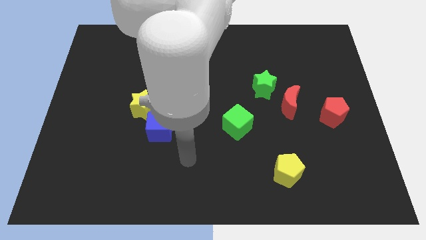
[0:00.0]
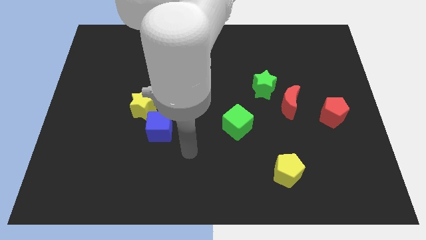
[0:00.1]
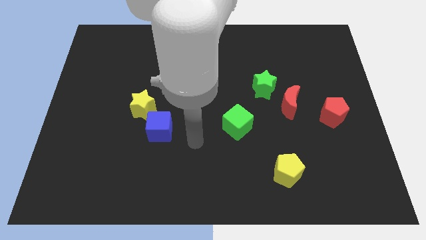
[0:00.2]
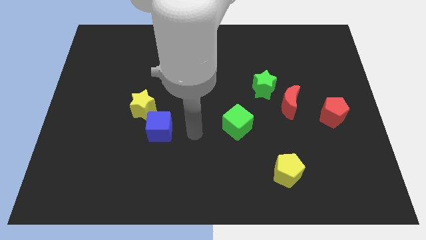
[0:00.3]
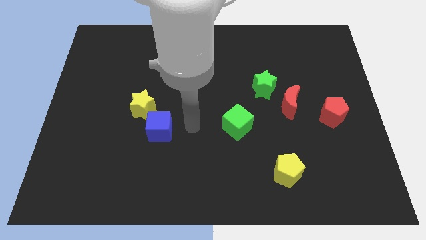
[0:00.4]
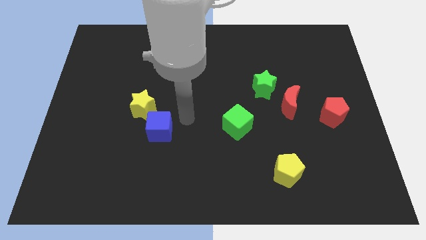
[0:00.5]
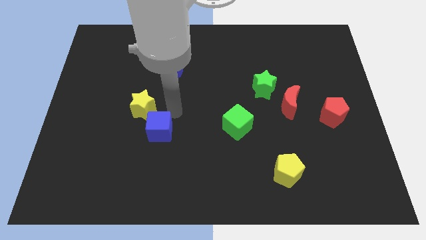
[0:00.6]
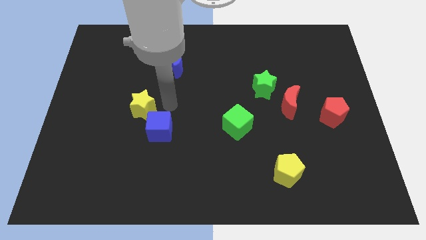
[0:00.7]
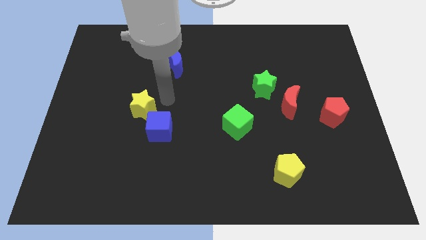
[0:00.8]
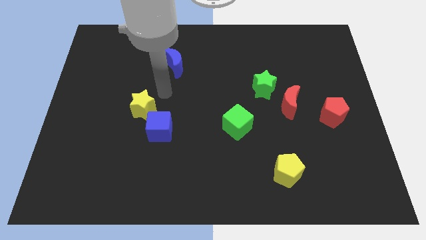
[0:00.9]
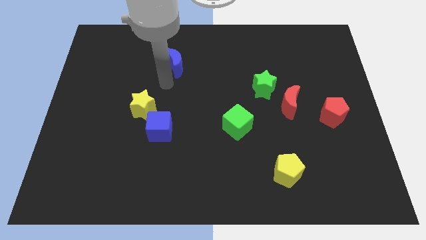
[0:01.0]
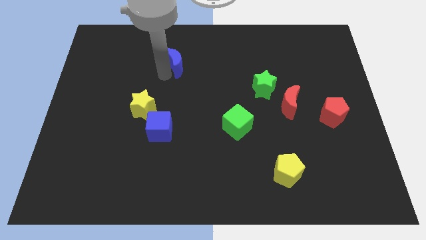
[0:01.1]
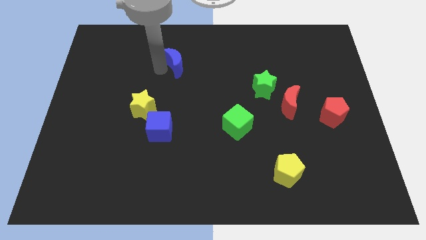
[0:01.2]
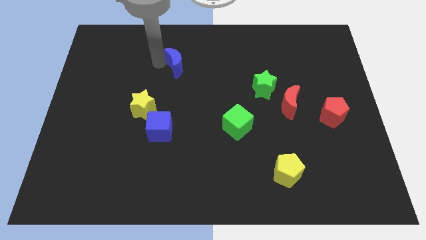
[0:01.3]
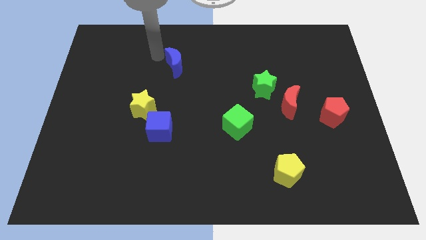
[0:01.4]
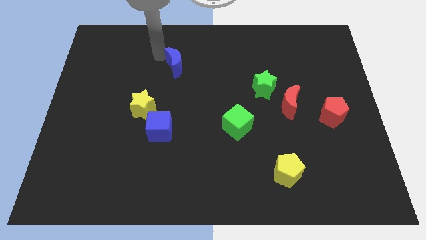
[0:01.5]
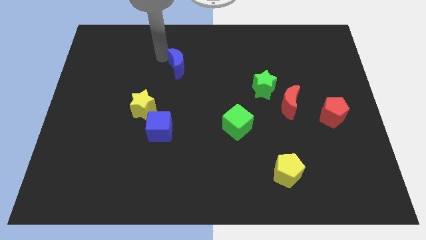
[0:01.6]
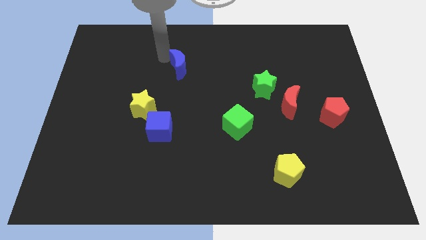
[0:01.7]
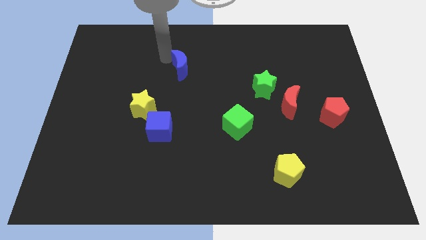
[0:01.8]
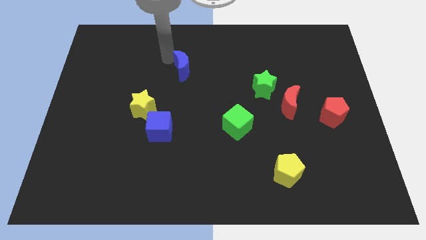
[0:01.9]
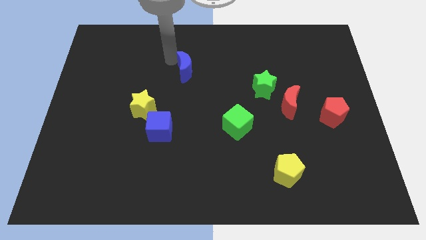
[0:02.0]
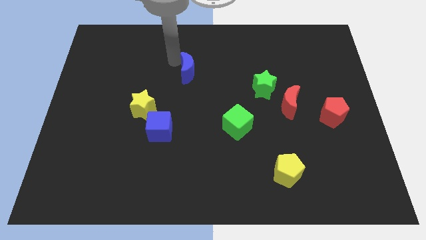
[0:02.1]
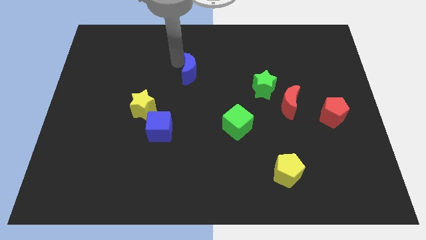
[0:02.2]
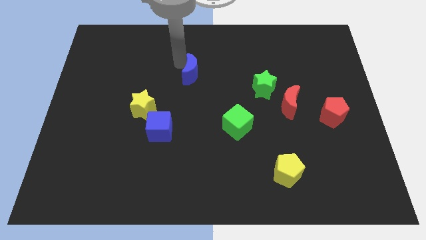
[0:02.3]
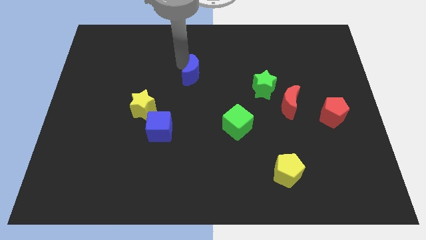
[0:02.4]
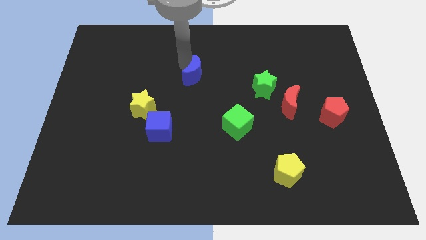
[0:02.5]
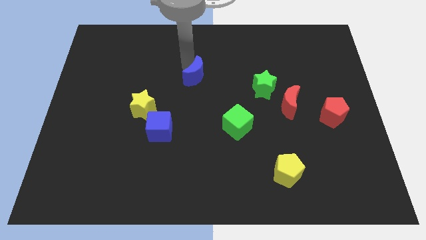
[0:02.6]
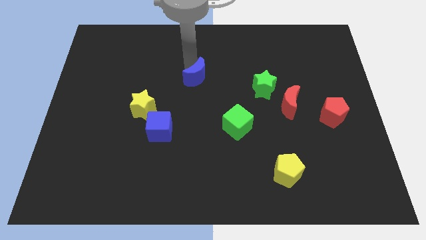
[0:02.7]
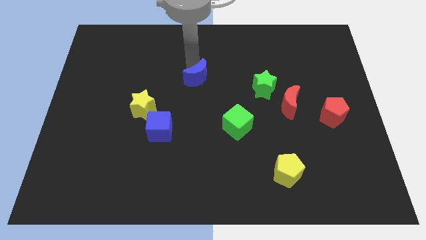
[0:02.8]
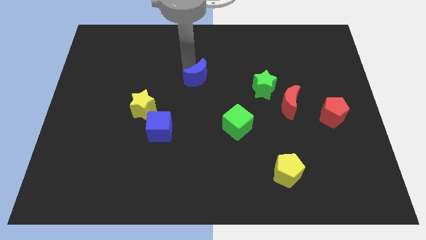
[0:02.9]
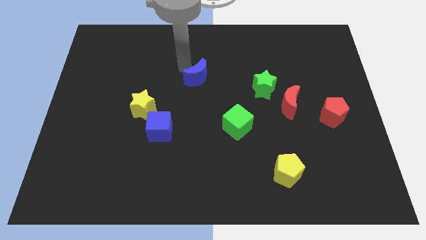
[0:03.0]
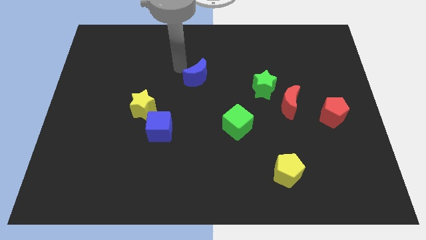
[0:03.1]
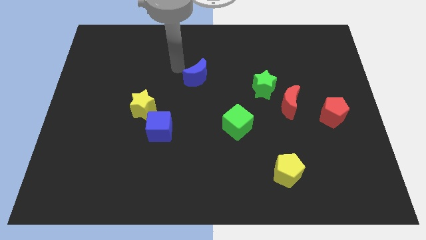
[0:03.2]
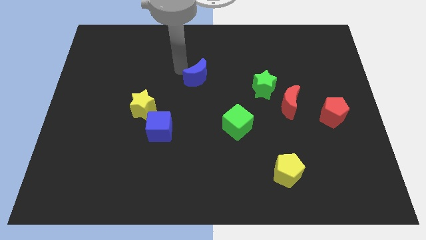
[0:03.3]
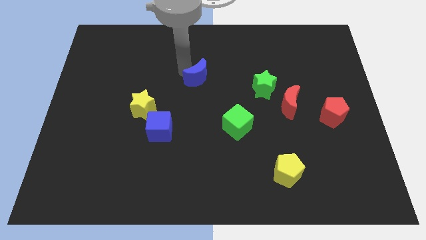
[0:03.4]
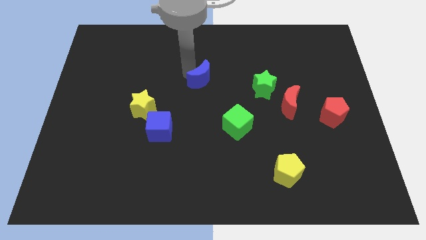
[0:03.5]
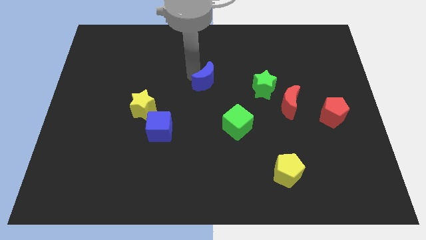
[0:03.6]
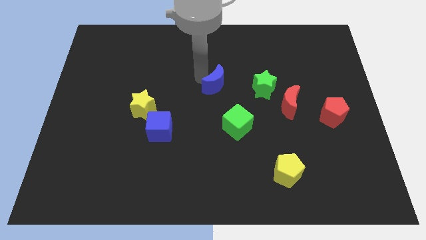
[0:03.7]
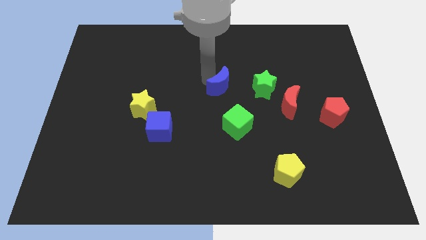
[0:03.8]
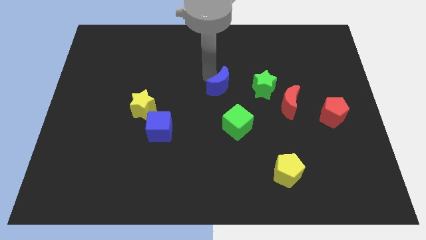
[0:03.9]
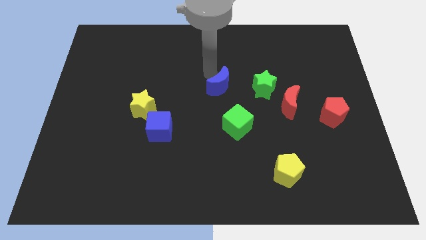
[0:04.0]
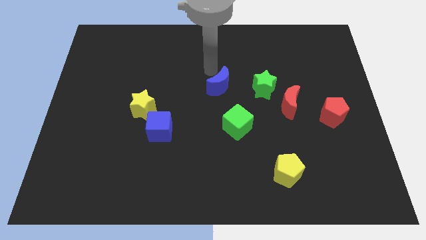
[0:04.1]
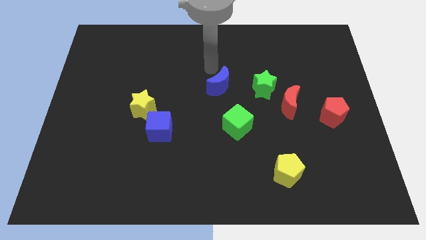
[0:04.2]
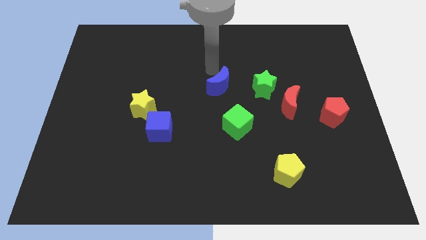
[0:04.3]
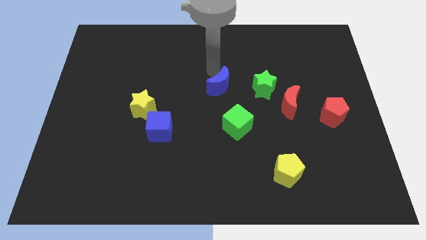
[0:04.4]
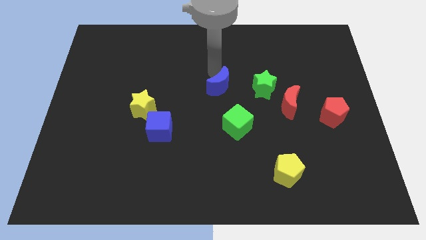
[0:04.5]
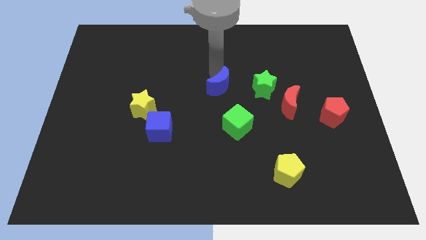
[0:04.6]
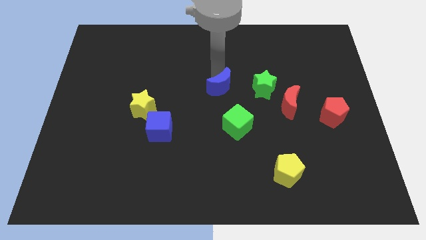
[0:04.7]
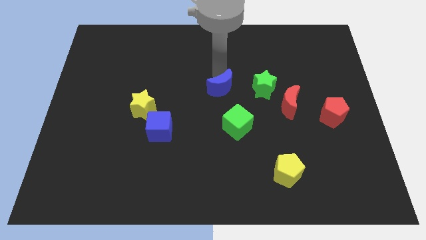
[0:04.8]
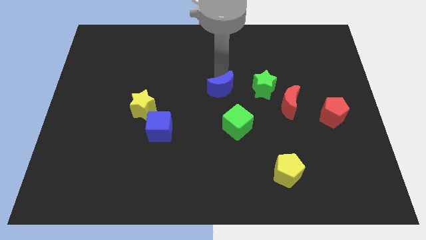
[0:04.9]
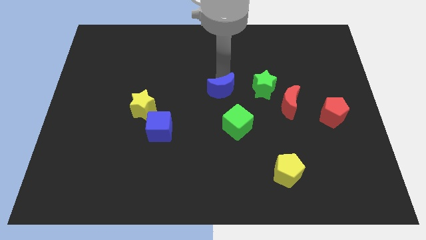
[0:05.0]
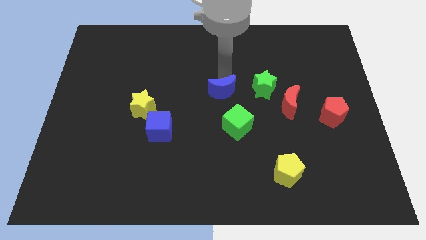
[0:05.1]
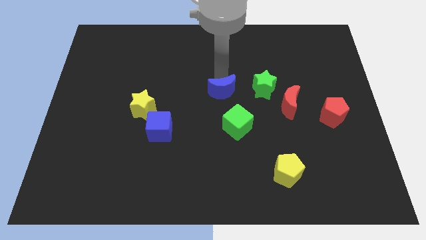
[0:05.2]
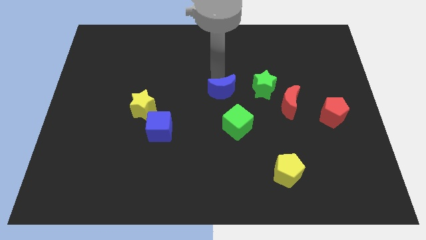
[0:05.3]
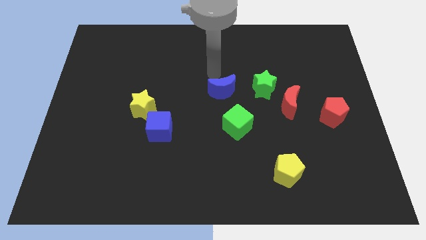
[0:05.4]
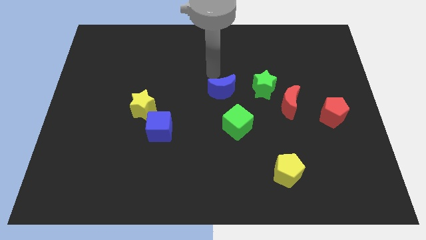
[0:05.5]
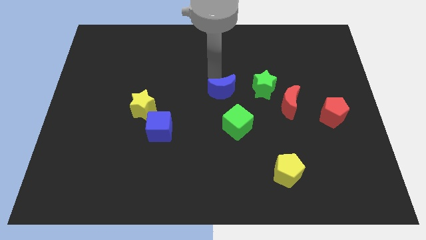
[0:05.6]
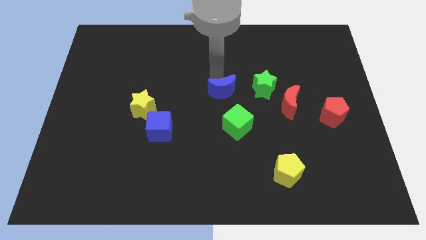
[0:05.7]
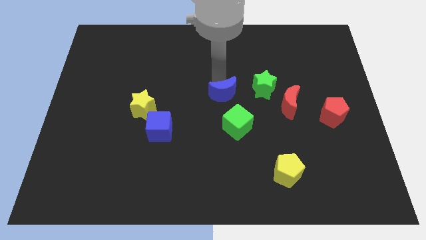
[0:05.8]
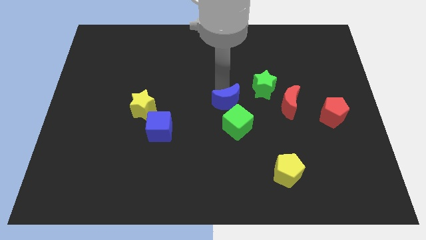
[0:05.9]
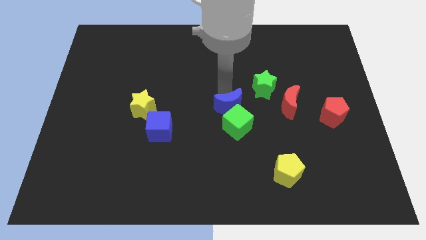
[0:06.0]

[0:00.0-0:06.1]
put the blue moon next to the green cube

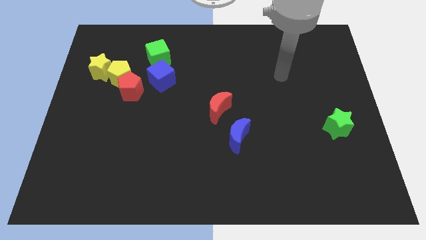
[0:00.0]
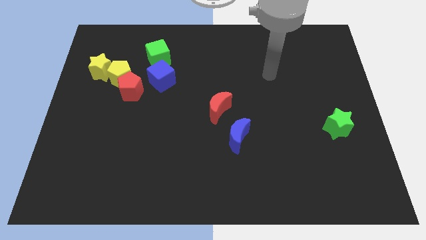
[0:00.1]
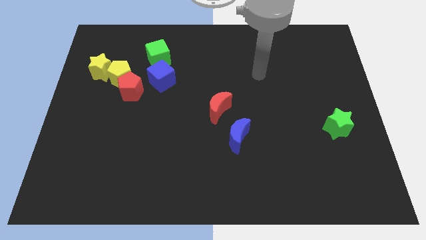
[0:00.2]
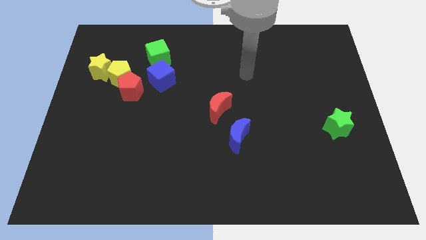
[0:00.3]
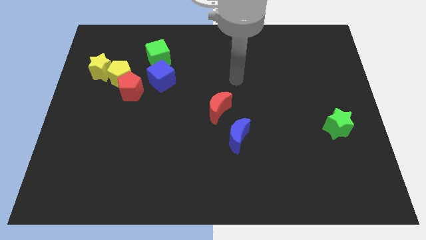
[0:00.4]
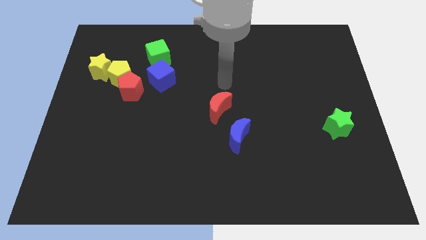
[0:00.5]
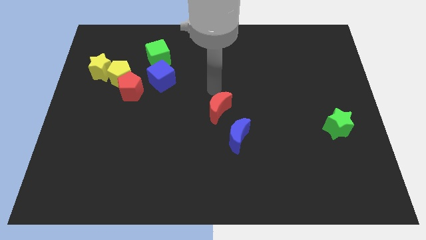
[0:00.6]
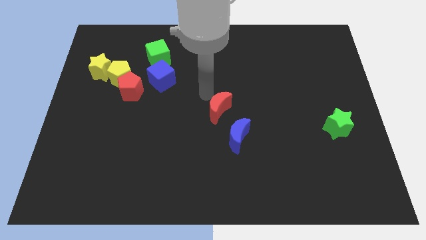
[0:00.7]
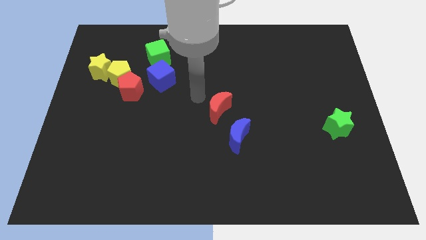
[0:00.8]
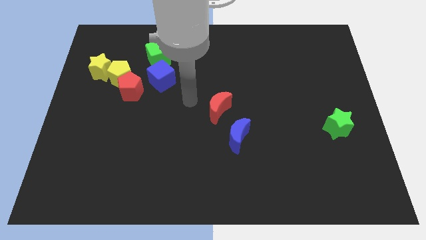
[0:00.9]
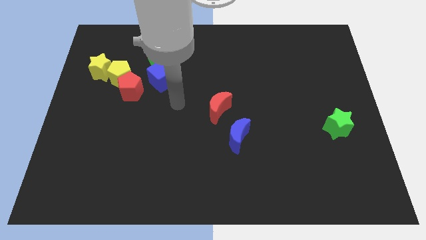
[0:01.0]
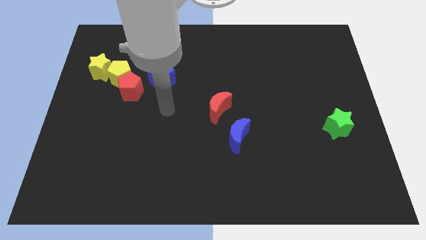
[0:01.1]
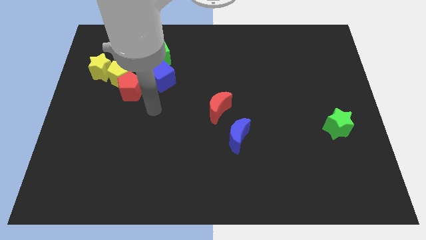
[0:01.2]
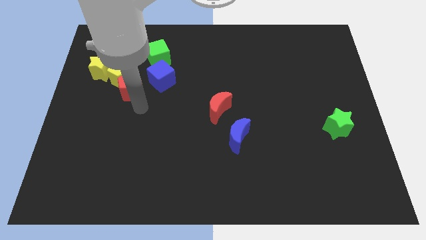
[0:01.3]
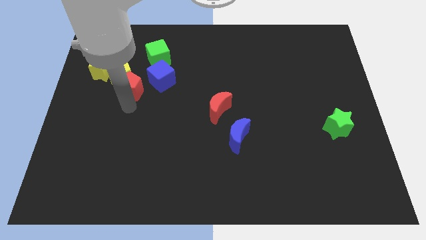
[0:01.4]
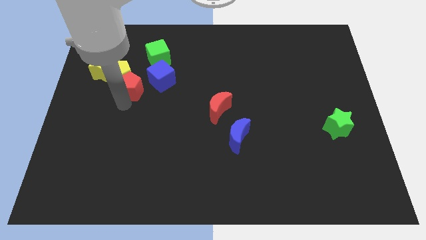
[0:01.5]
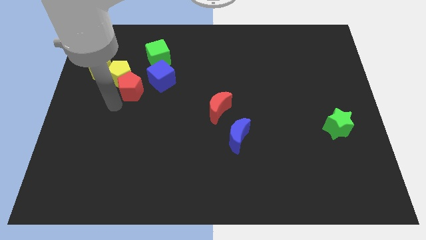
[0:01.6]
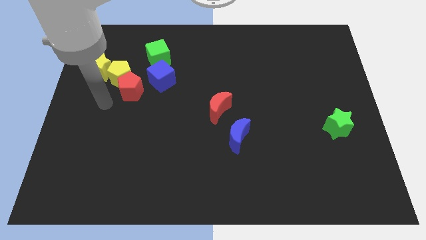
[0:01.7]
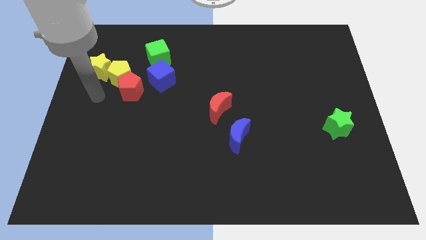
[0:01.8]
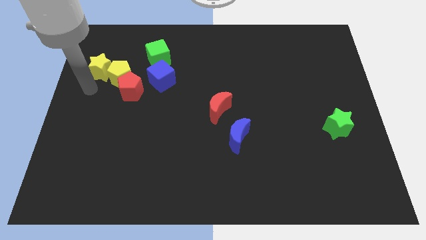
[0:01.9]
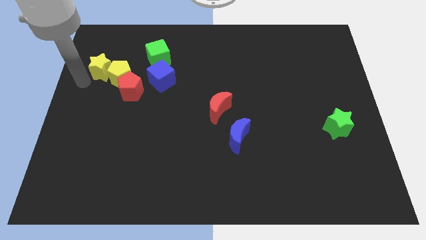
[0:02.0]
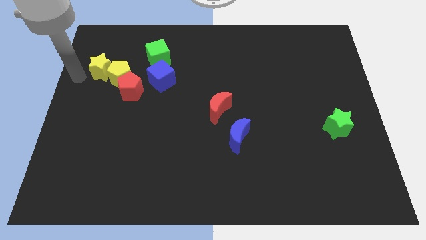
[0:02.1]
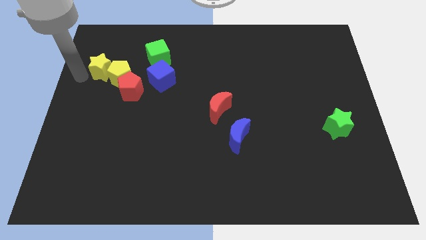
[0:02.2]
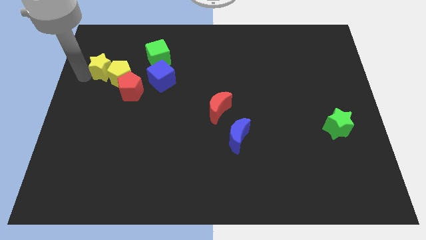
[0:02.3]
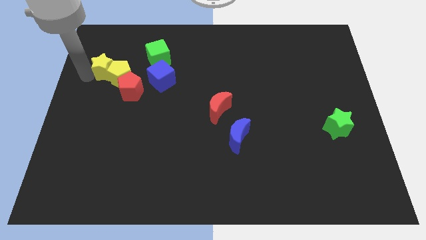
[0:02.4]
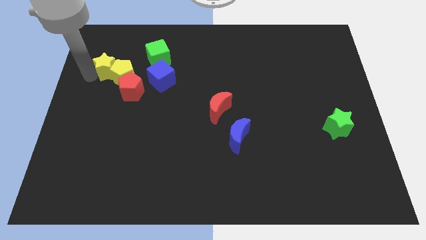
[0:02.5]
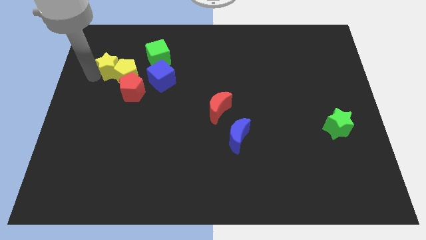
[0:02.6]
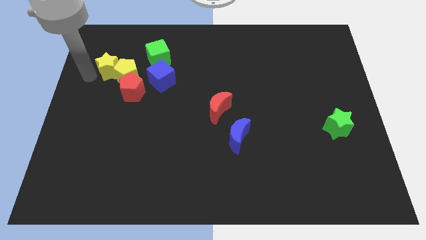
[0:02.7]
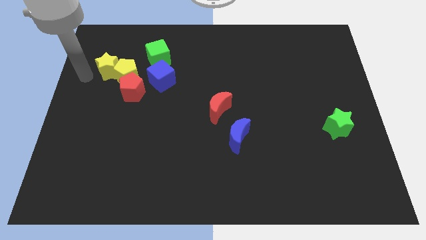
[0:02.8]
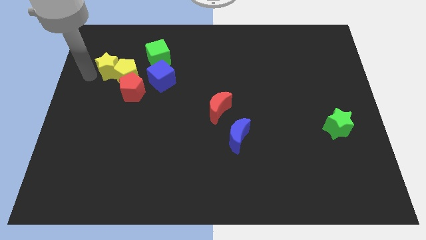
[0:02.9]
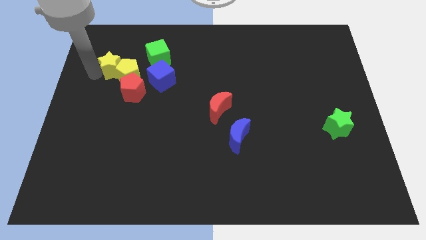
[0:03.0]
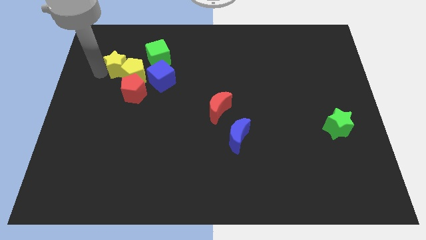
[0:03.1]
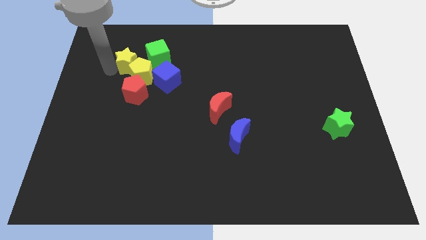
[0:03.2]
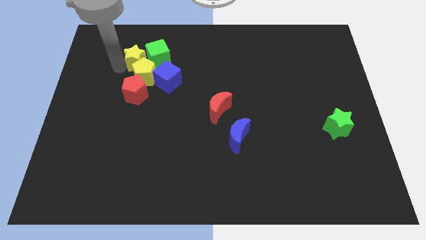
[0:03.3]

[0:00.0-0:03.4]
put the yellow star close to the green cube
